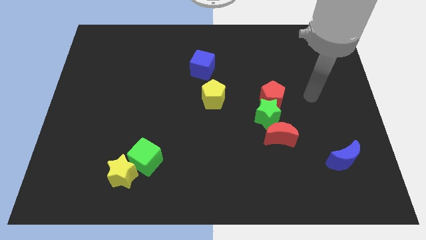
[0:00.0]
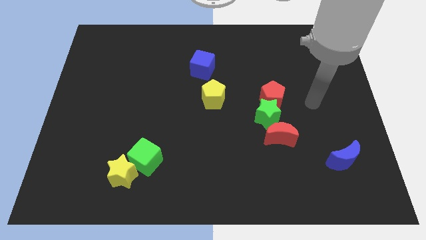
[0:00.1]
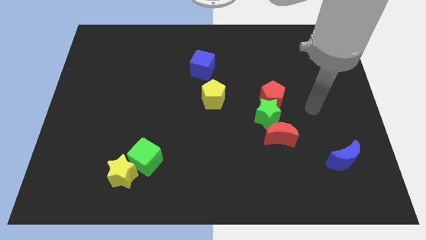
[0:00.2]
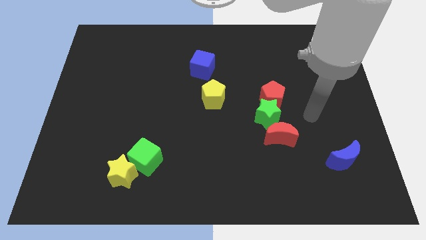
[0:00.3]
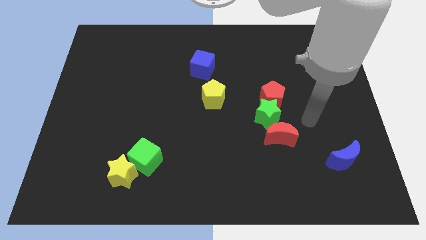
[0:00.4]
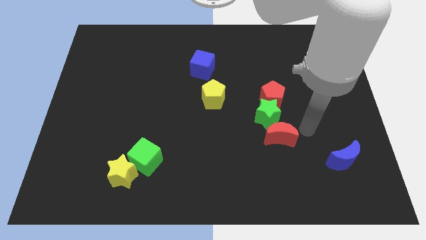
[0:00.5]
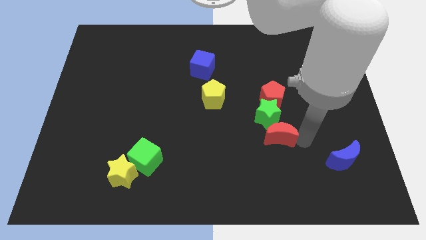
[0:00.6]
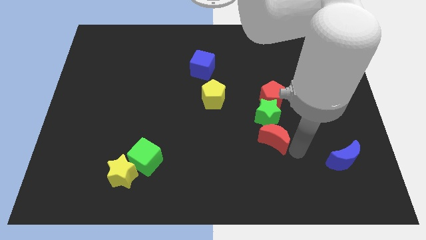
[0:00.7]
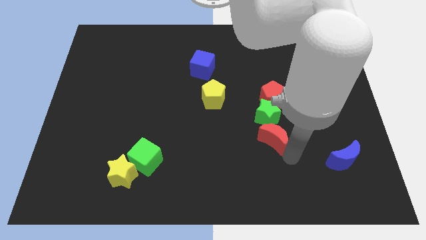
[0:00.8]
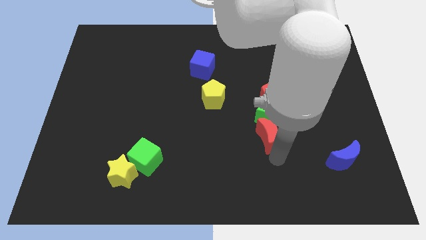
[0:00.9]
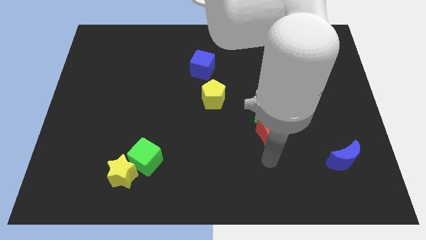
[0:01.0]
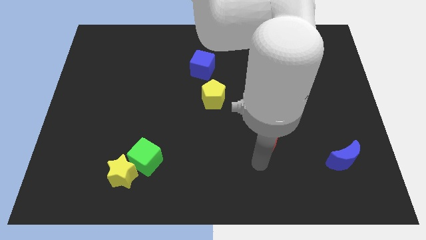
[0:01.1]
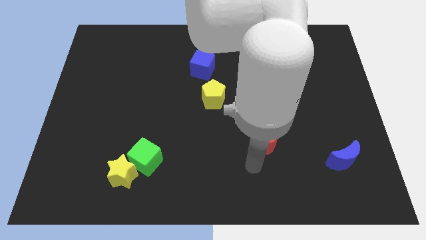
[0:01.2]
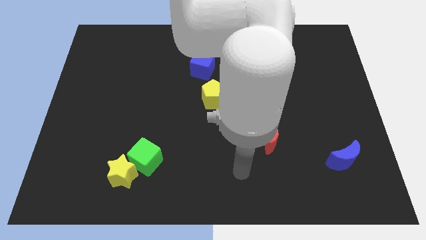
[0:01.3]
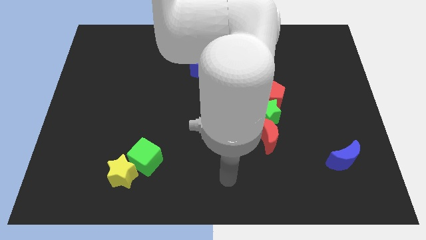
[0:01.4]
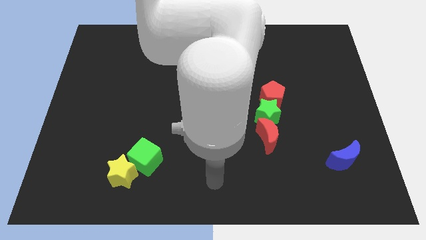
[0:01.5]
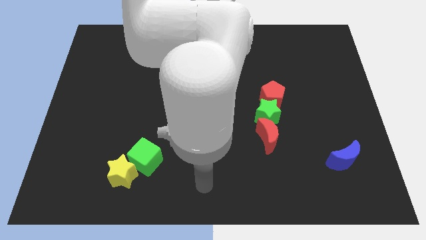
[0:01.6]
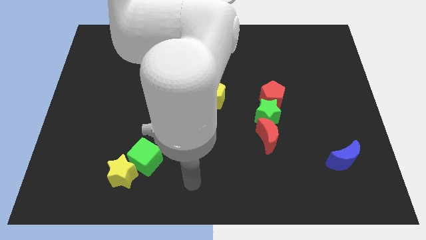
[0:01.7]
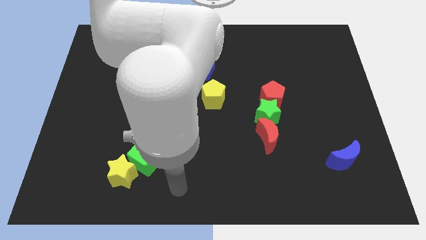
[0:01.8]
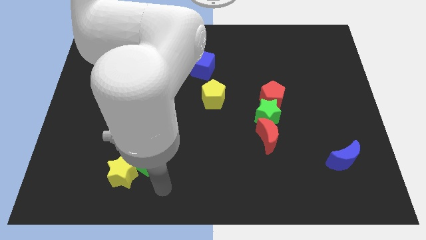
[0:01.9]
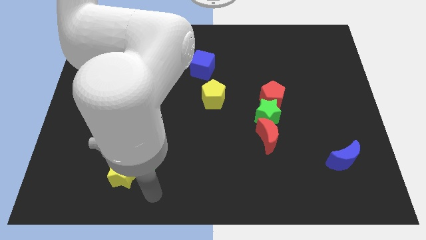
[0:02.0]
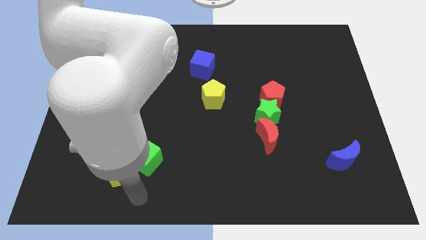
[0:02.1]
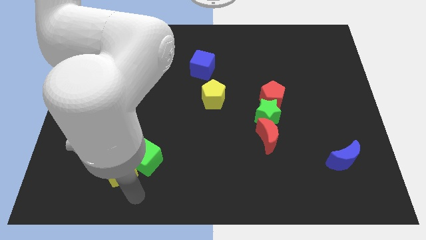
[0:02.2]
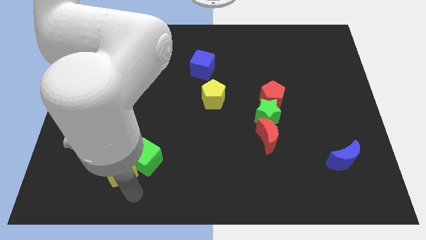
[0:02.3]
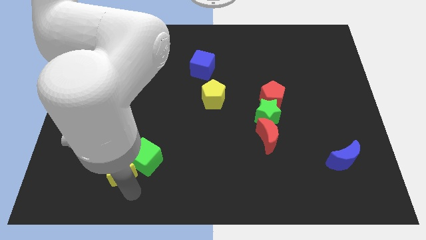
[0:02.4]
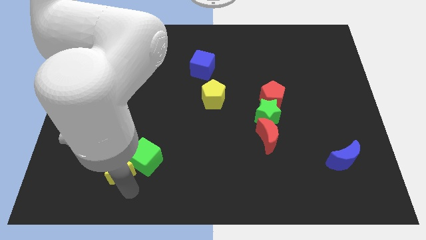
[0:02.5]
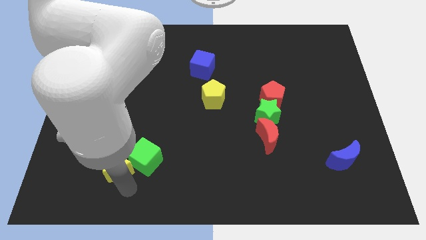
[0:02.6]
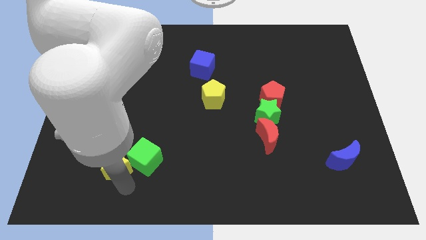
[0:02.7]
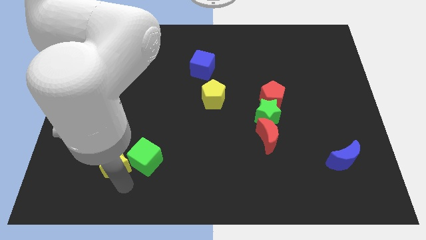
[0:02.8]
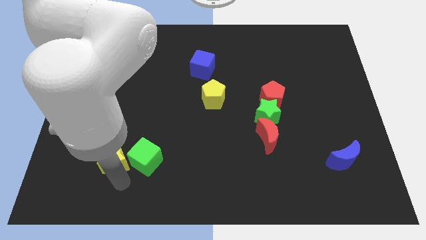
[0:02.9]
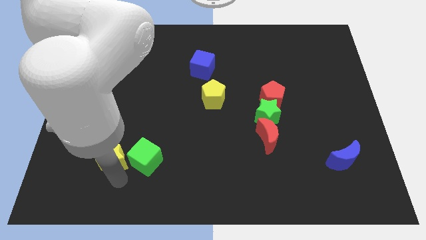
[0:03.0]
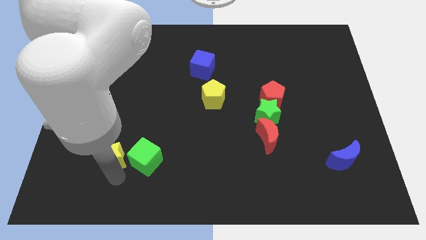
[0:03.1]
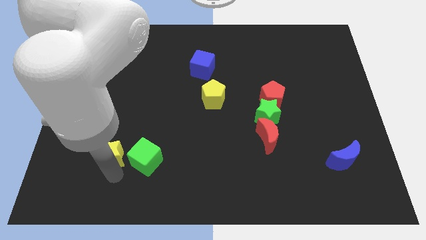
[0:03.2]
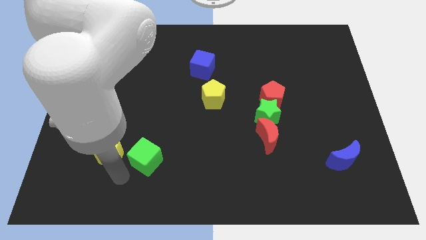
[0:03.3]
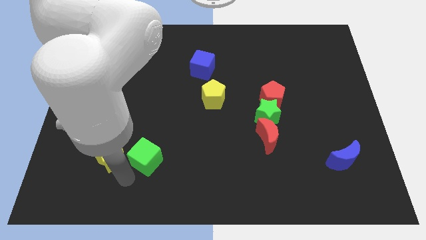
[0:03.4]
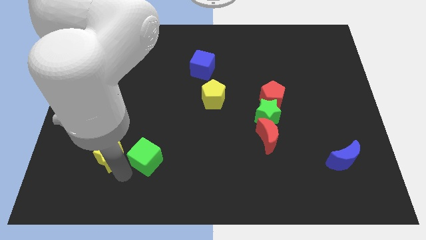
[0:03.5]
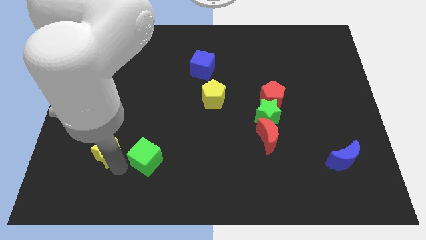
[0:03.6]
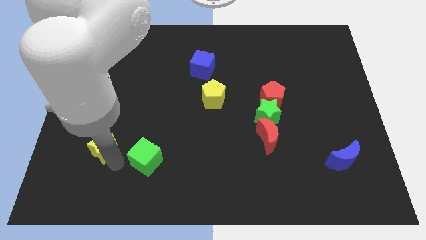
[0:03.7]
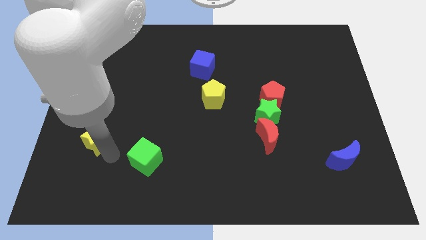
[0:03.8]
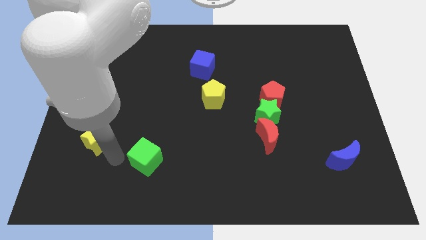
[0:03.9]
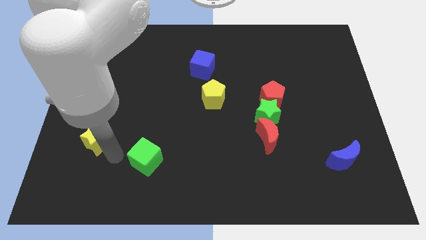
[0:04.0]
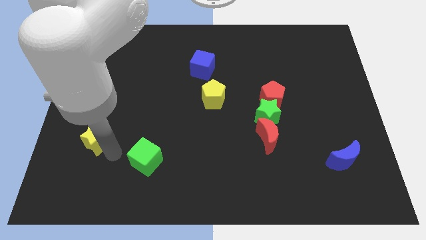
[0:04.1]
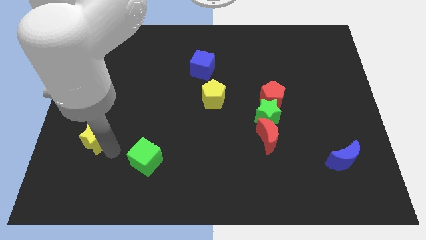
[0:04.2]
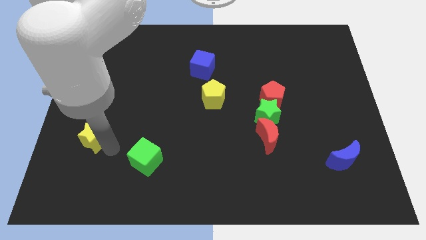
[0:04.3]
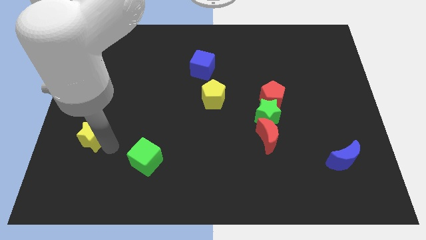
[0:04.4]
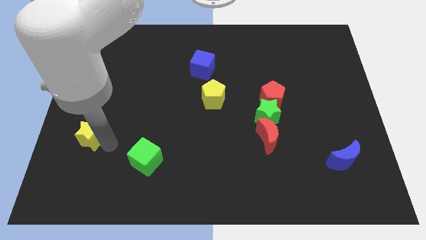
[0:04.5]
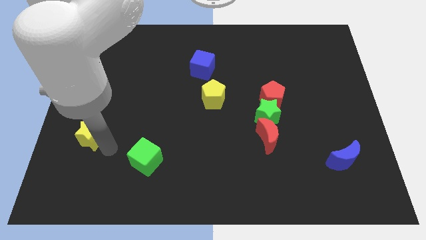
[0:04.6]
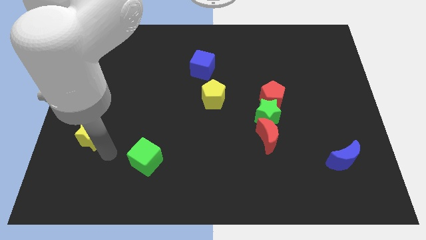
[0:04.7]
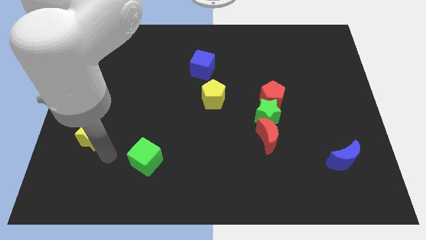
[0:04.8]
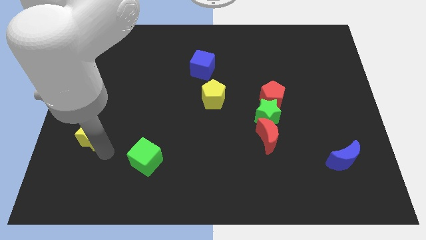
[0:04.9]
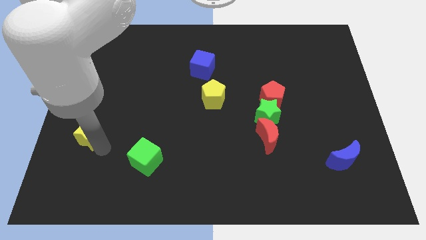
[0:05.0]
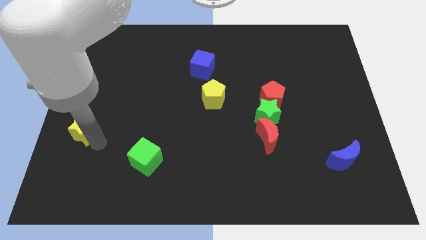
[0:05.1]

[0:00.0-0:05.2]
push the yellow star to the center left

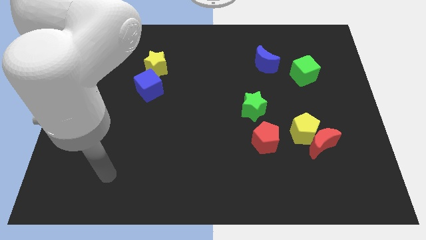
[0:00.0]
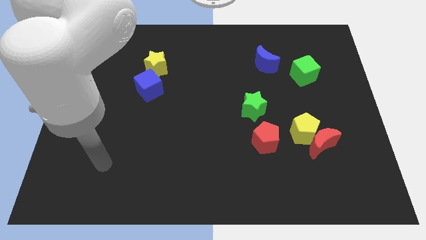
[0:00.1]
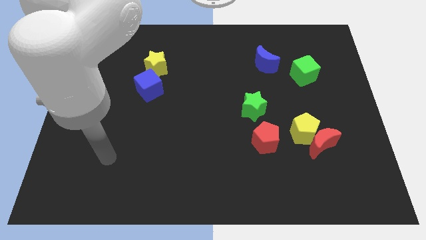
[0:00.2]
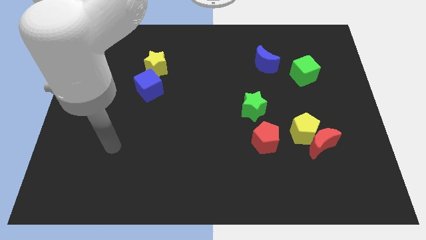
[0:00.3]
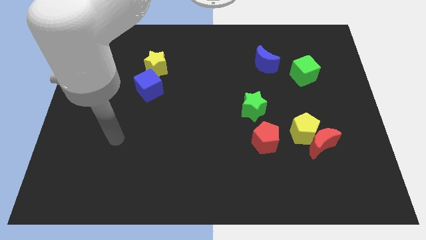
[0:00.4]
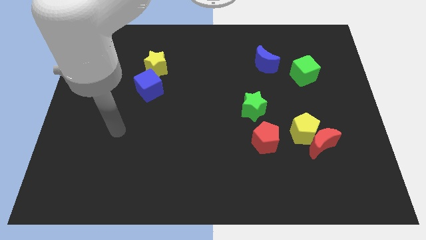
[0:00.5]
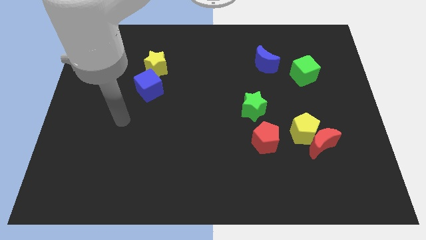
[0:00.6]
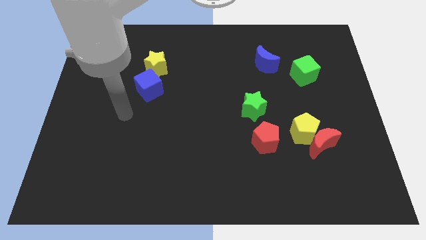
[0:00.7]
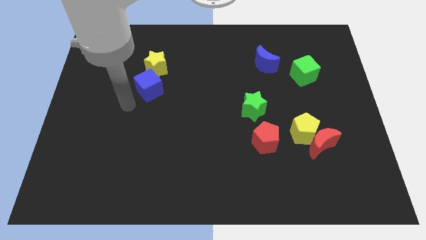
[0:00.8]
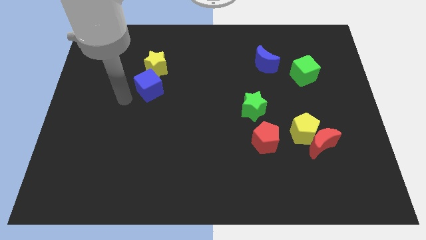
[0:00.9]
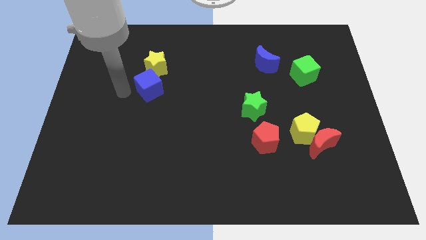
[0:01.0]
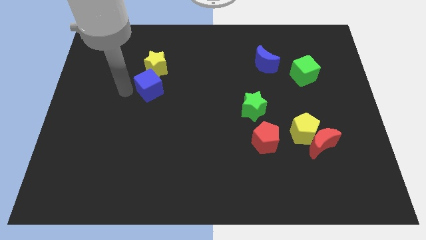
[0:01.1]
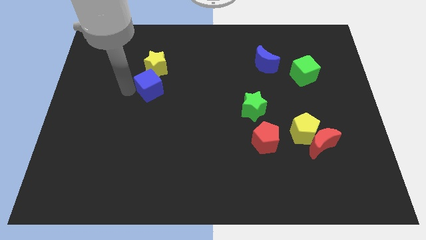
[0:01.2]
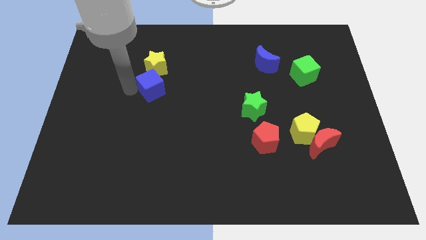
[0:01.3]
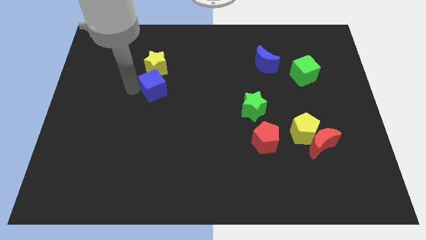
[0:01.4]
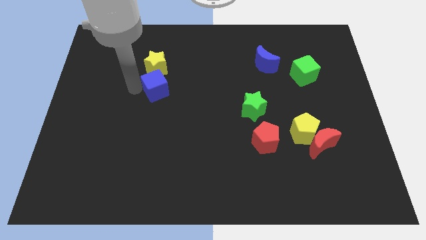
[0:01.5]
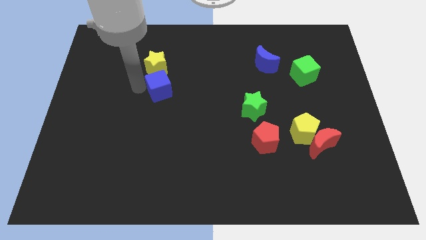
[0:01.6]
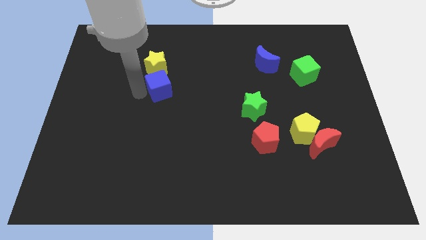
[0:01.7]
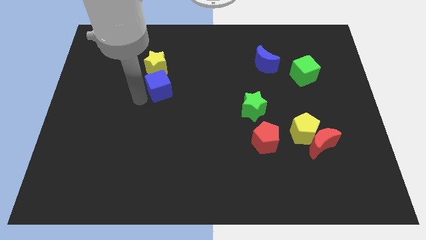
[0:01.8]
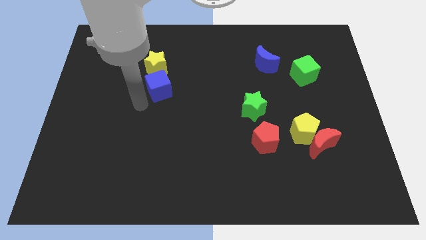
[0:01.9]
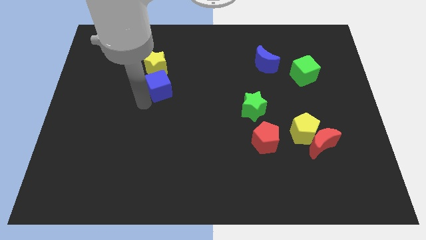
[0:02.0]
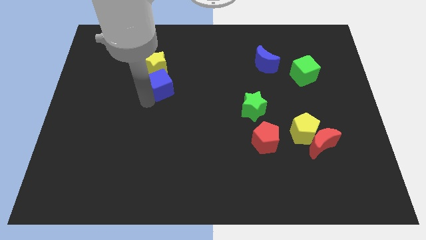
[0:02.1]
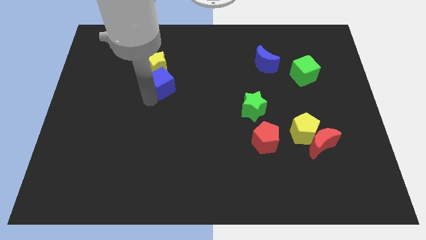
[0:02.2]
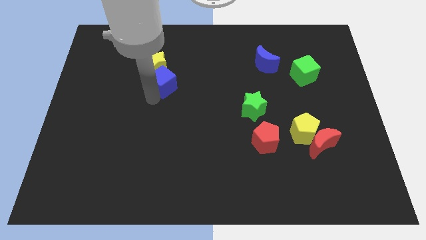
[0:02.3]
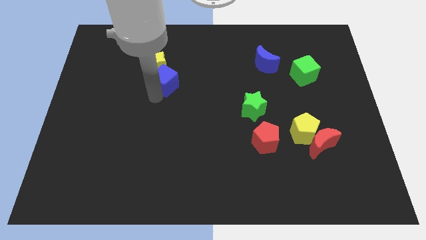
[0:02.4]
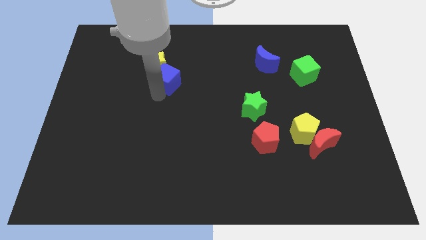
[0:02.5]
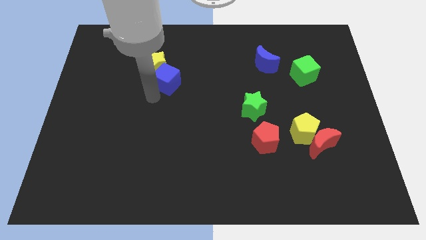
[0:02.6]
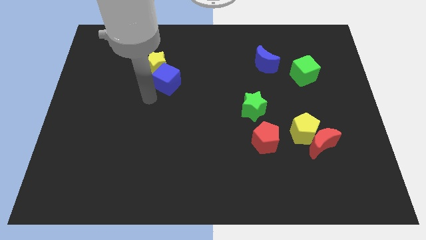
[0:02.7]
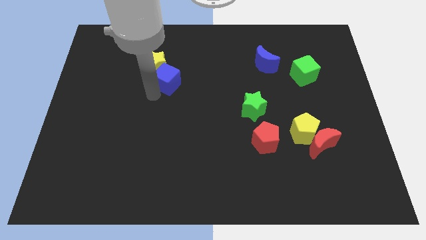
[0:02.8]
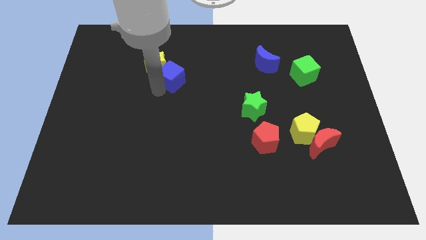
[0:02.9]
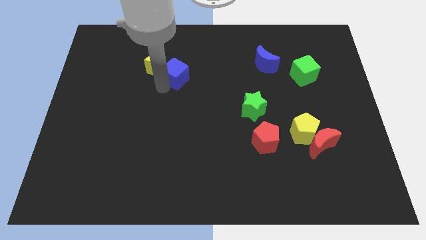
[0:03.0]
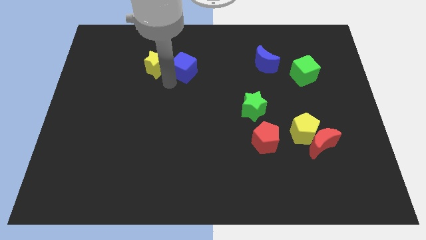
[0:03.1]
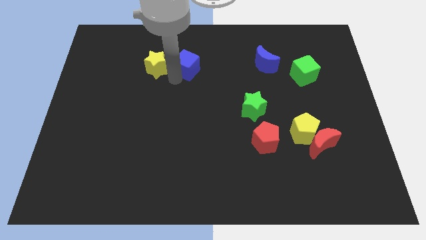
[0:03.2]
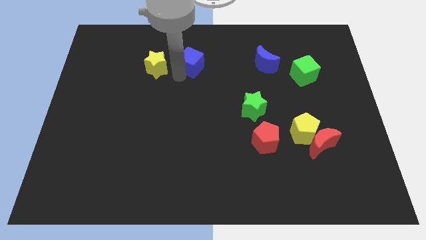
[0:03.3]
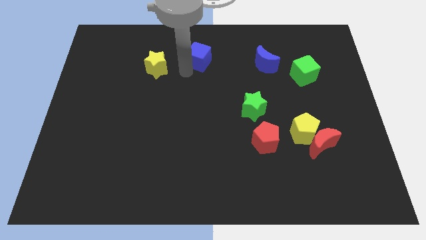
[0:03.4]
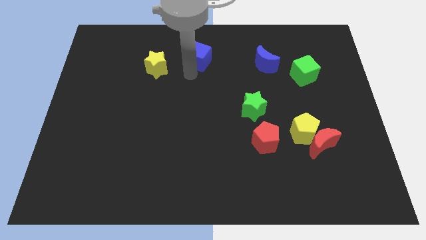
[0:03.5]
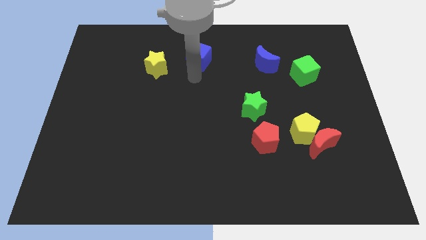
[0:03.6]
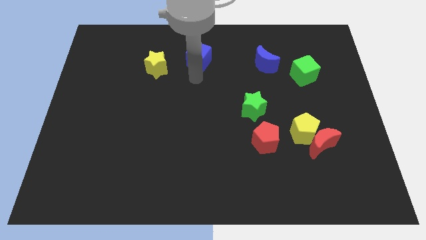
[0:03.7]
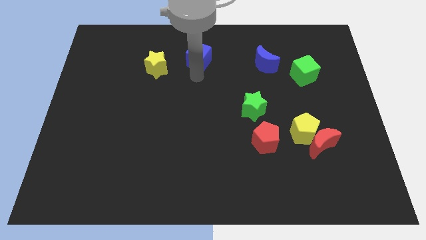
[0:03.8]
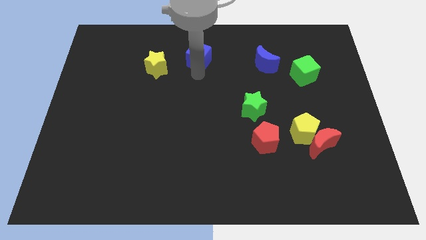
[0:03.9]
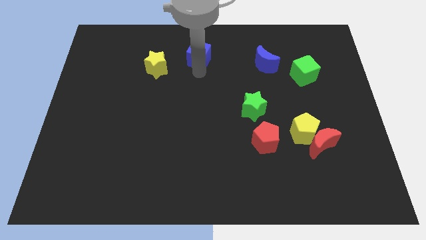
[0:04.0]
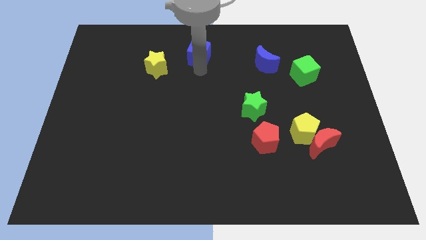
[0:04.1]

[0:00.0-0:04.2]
move the blue cube to the towards your base
